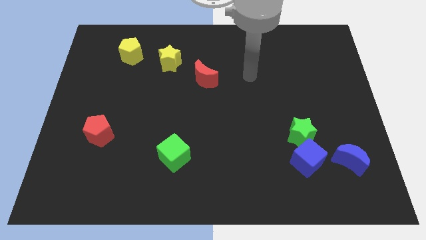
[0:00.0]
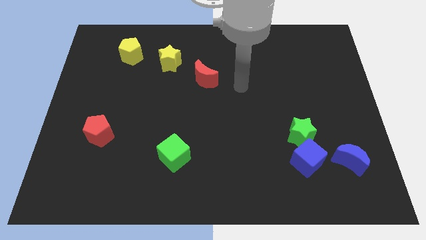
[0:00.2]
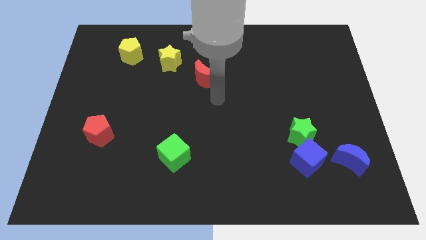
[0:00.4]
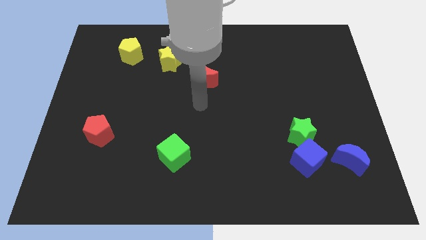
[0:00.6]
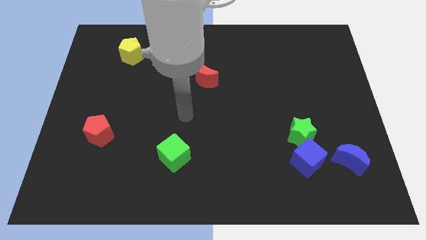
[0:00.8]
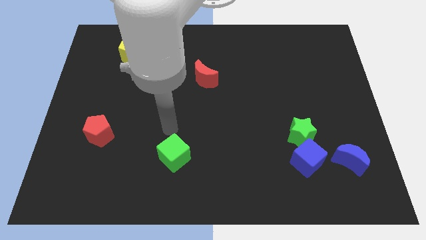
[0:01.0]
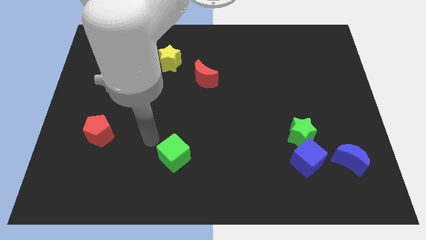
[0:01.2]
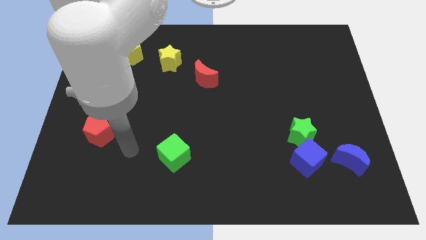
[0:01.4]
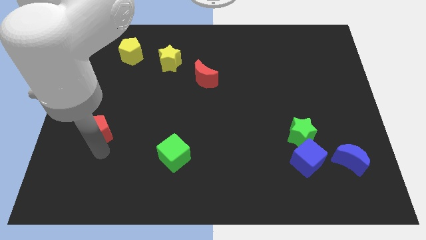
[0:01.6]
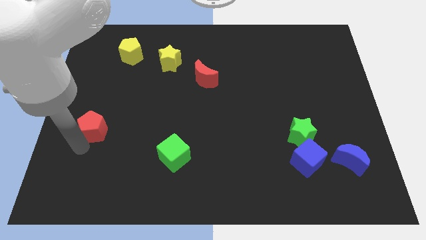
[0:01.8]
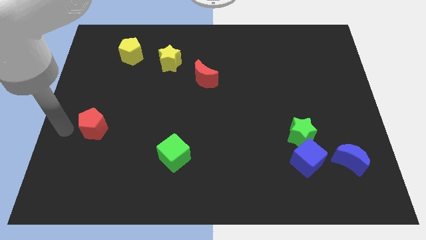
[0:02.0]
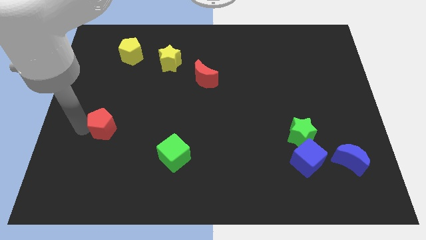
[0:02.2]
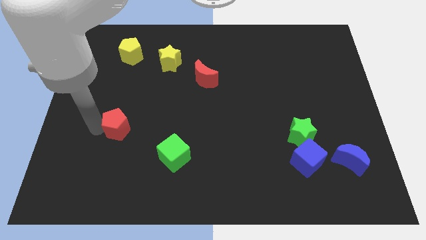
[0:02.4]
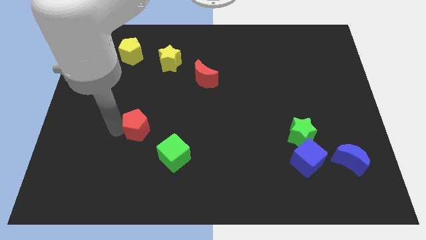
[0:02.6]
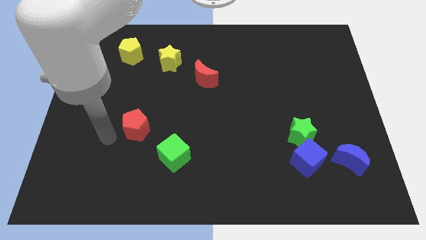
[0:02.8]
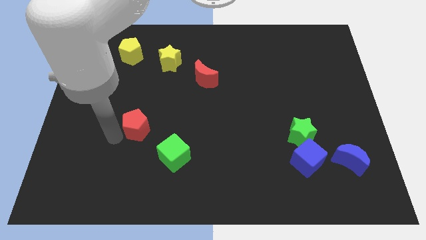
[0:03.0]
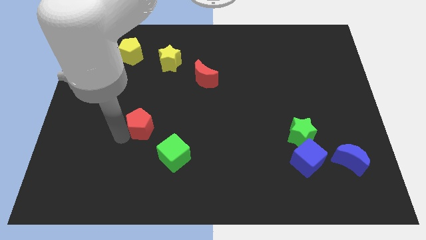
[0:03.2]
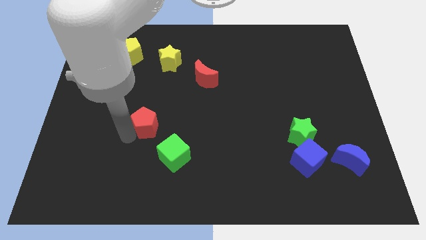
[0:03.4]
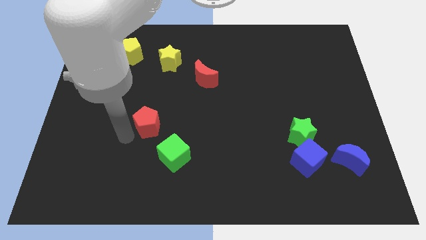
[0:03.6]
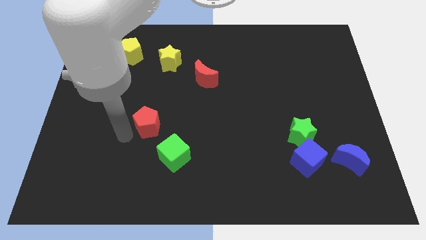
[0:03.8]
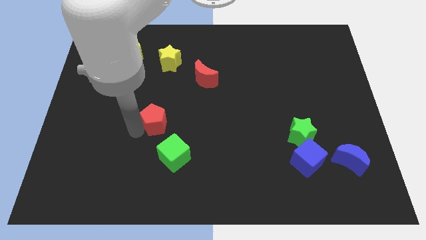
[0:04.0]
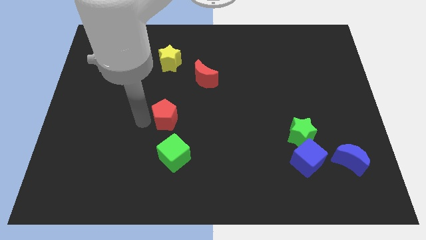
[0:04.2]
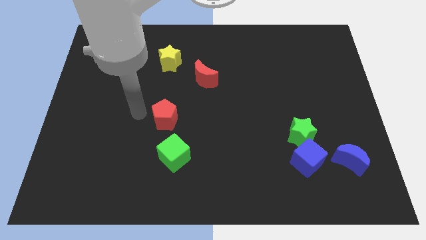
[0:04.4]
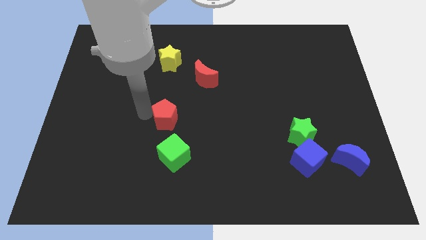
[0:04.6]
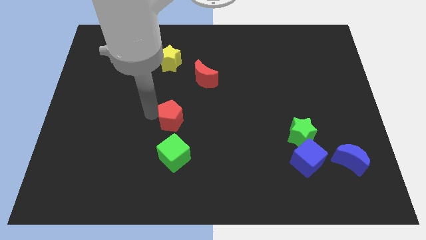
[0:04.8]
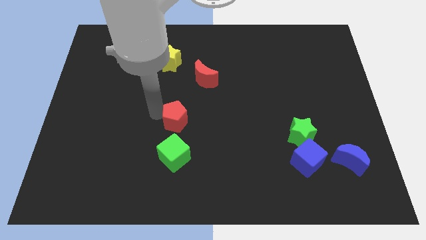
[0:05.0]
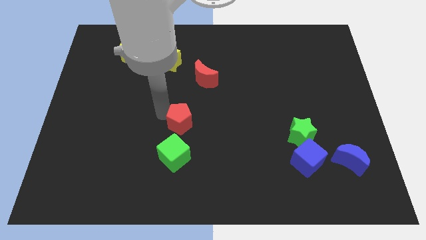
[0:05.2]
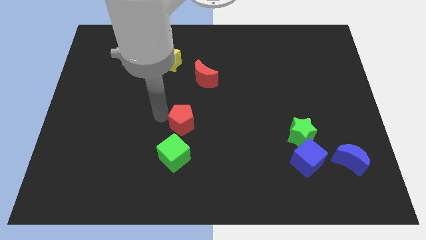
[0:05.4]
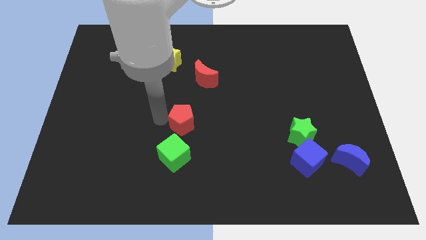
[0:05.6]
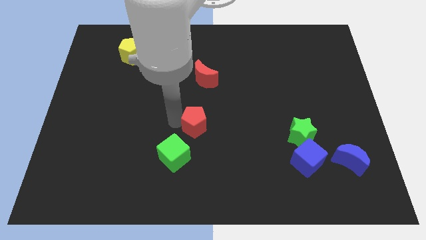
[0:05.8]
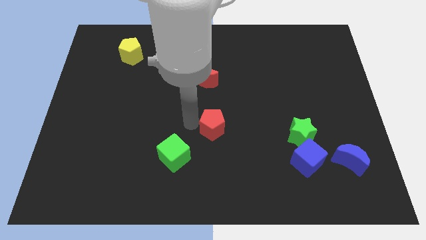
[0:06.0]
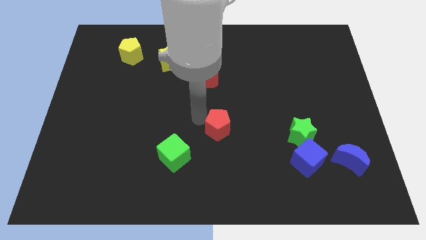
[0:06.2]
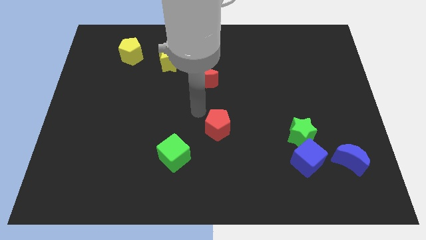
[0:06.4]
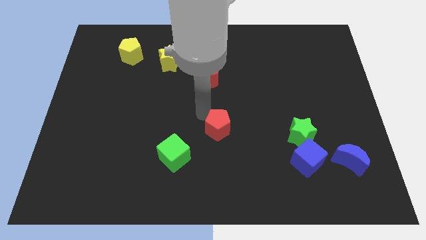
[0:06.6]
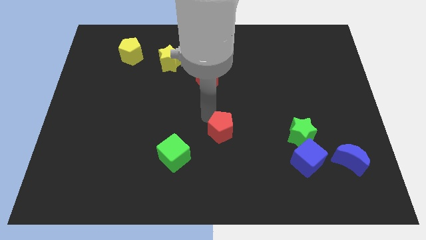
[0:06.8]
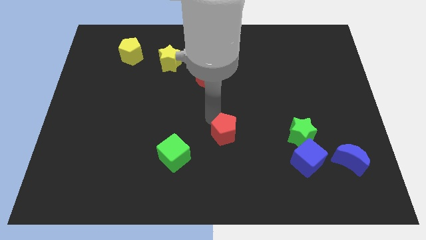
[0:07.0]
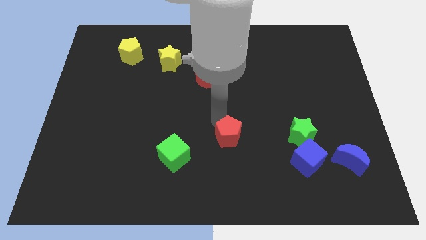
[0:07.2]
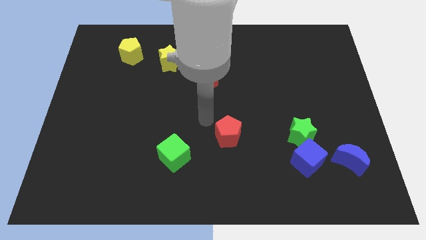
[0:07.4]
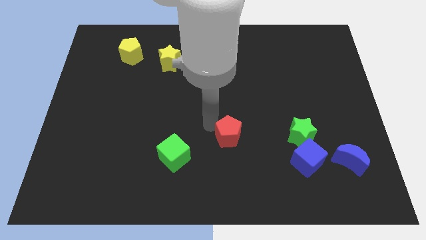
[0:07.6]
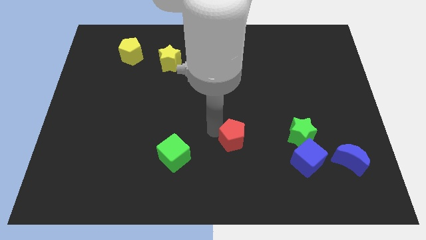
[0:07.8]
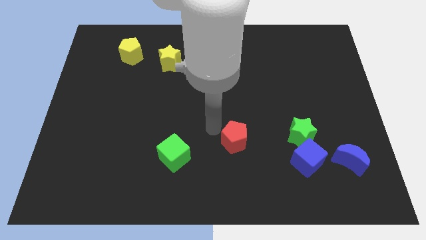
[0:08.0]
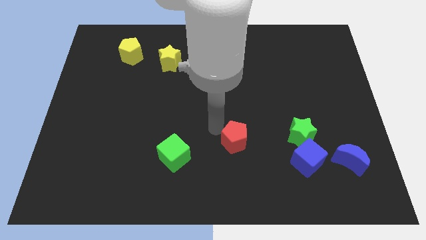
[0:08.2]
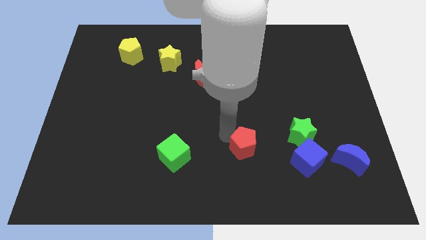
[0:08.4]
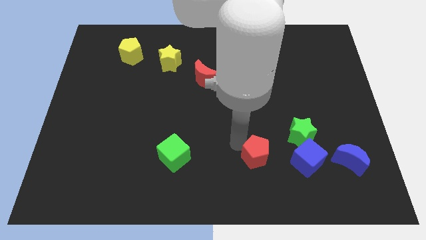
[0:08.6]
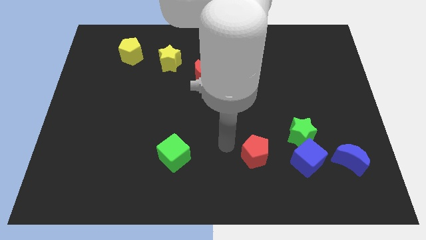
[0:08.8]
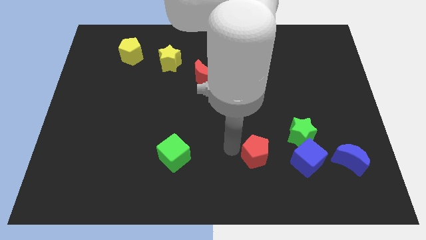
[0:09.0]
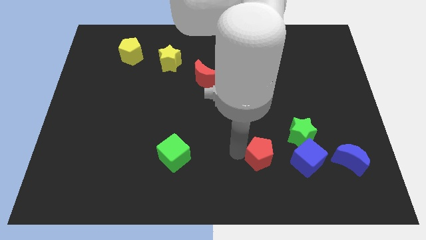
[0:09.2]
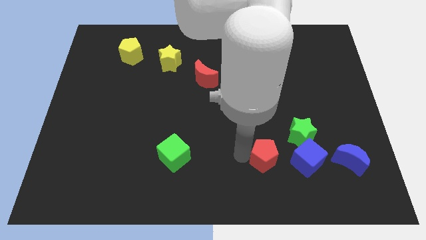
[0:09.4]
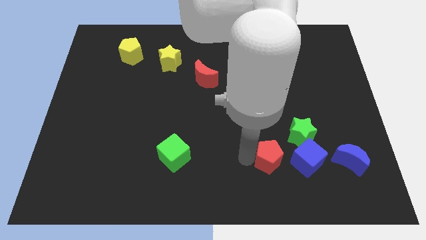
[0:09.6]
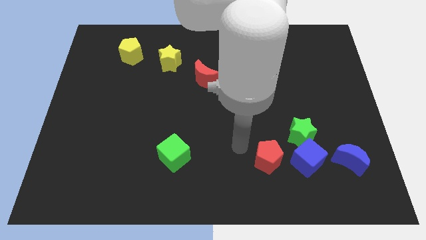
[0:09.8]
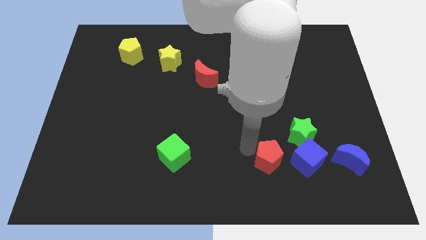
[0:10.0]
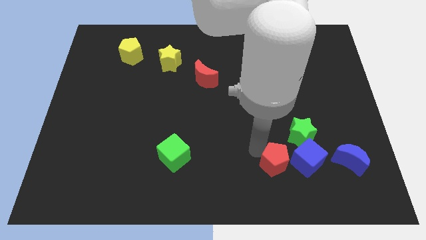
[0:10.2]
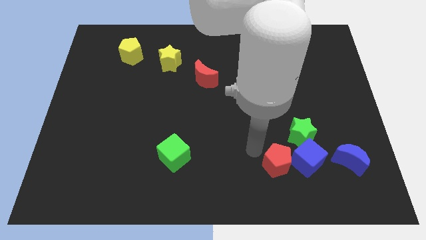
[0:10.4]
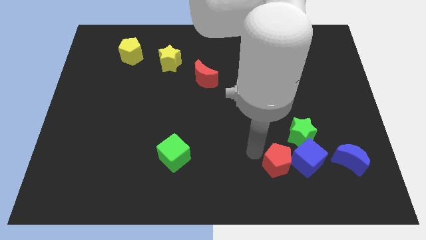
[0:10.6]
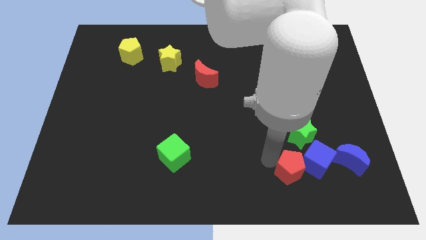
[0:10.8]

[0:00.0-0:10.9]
slide the red pentagon below the green star

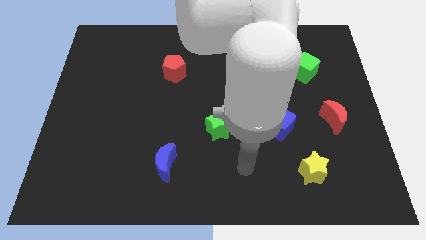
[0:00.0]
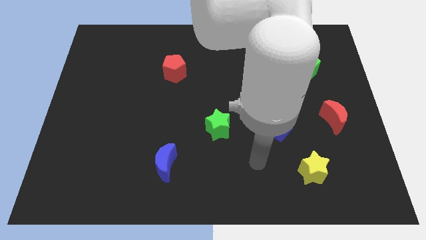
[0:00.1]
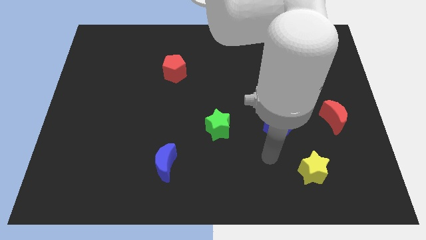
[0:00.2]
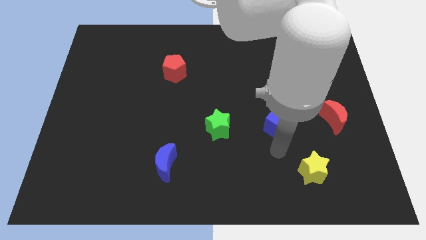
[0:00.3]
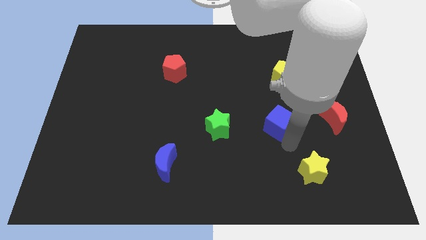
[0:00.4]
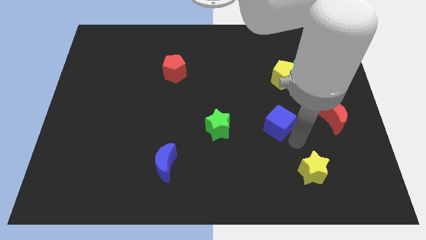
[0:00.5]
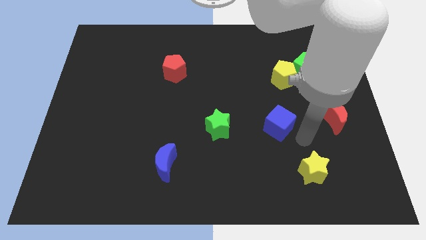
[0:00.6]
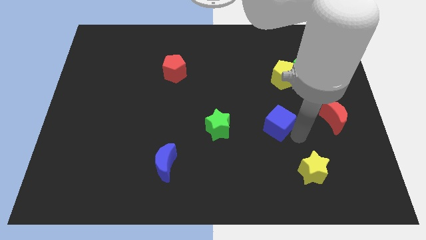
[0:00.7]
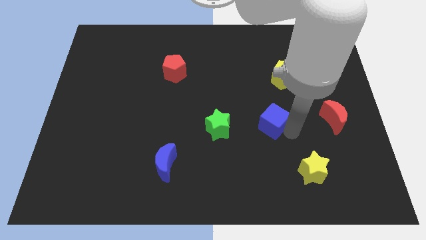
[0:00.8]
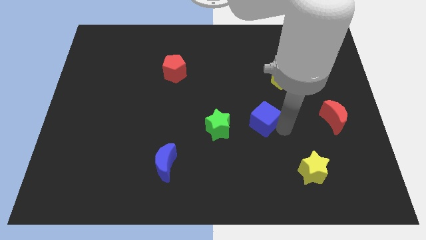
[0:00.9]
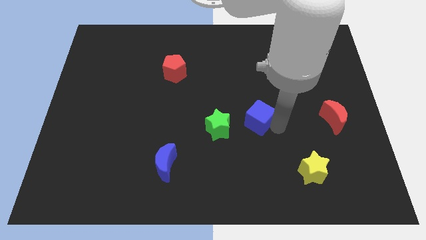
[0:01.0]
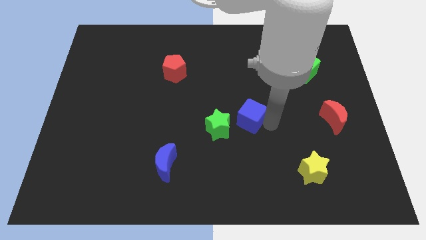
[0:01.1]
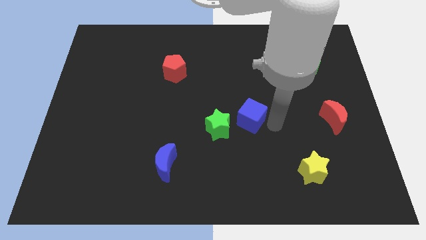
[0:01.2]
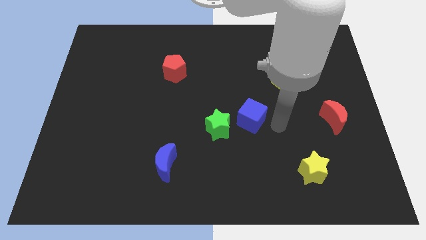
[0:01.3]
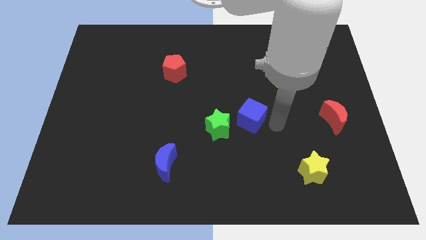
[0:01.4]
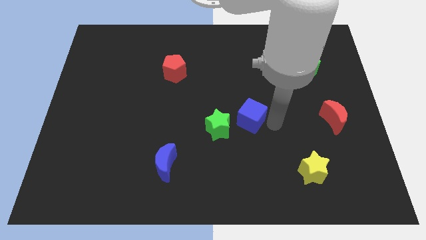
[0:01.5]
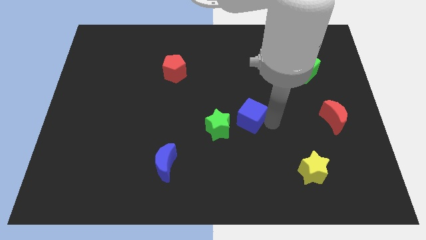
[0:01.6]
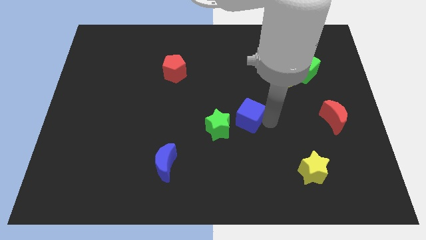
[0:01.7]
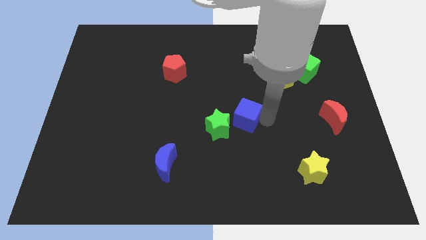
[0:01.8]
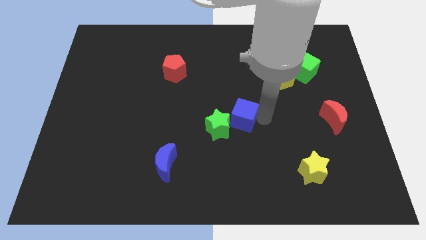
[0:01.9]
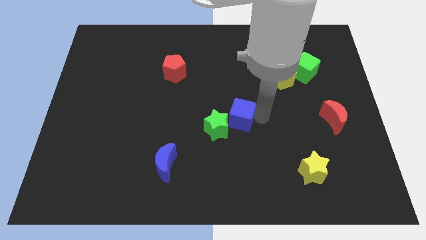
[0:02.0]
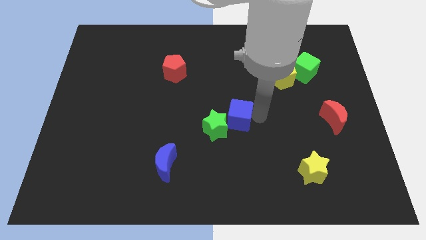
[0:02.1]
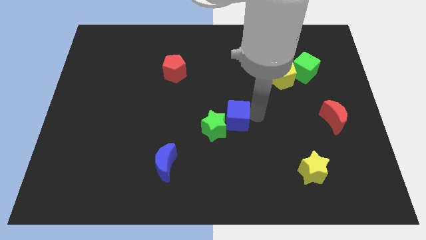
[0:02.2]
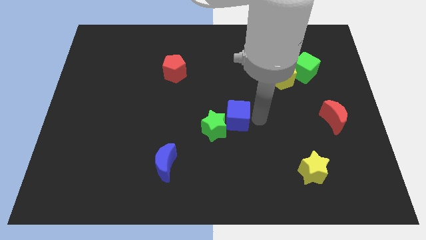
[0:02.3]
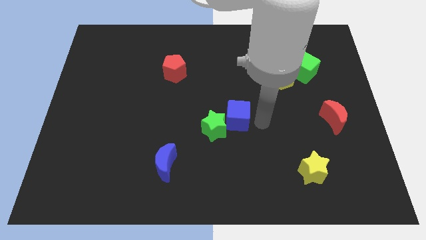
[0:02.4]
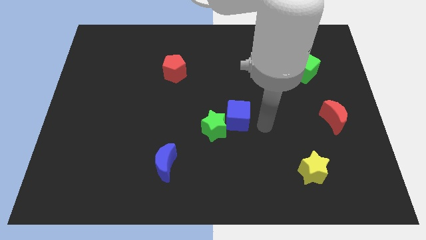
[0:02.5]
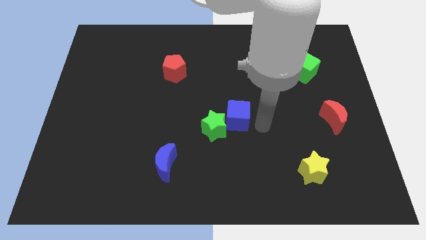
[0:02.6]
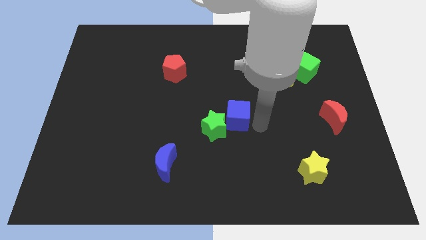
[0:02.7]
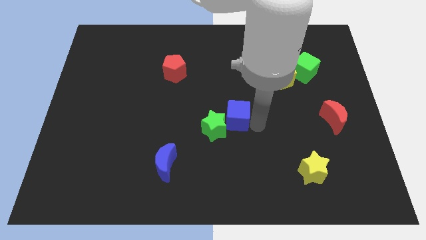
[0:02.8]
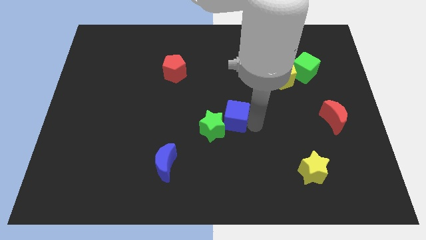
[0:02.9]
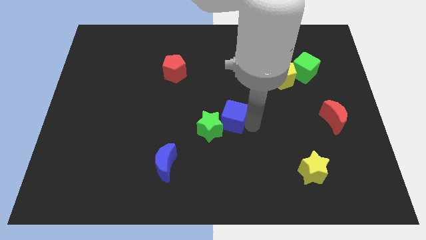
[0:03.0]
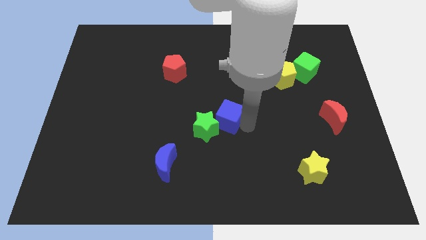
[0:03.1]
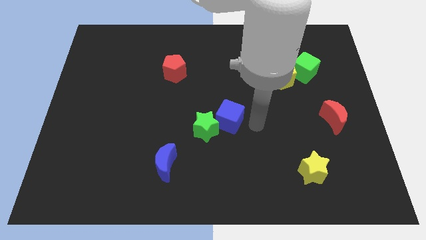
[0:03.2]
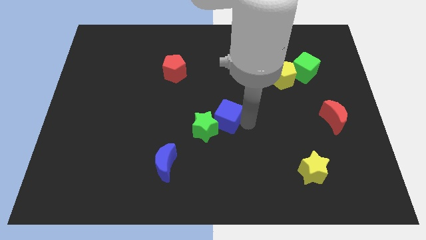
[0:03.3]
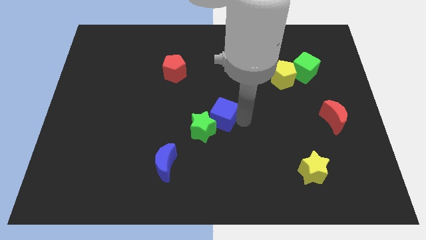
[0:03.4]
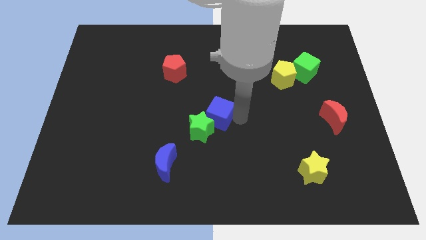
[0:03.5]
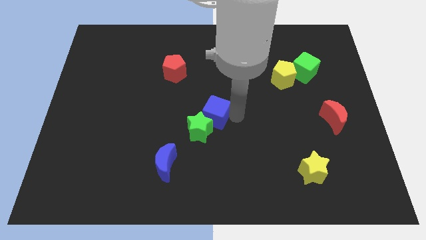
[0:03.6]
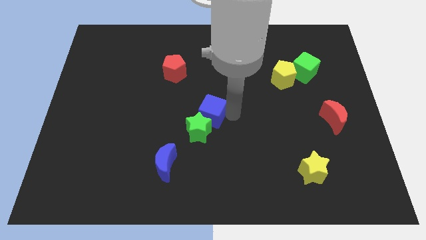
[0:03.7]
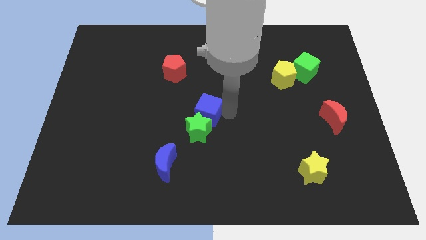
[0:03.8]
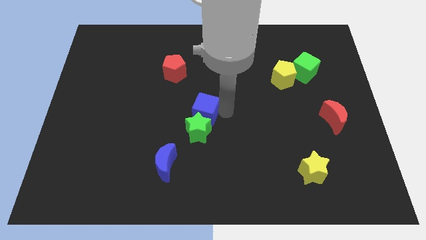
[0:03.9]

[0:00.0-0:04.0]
push the blue cube to the top left of the green star
